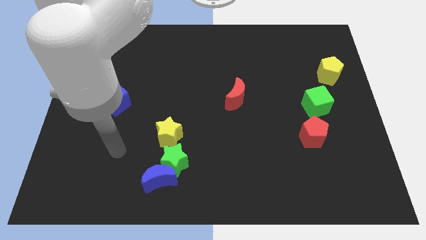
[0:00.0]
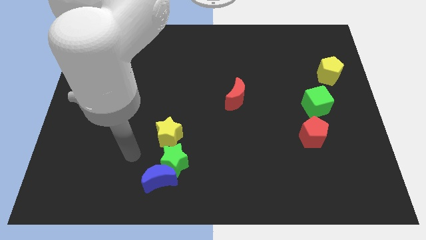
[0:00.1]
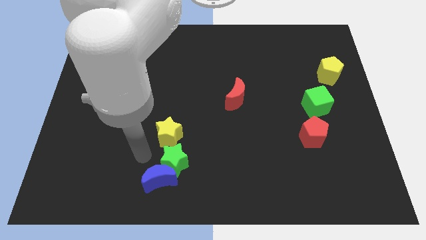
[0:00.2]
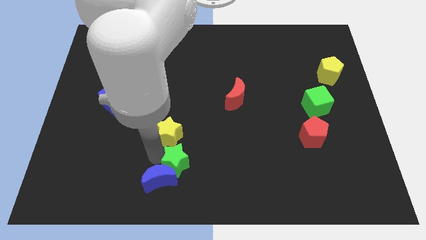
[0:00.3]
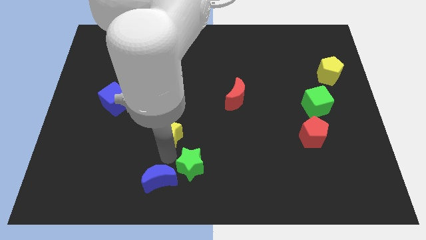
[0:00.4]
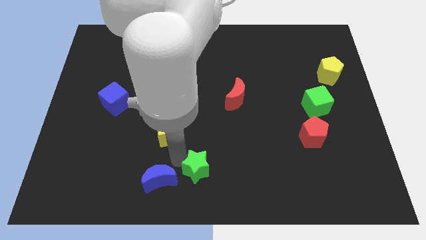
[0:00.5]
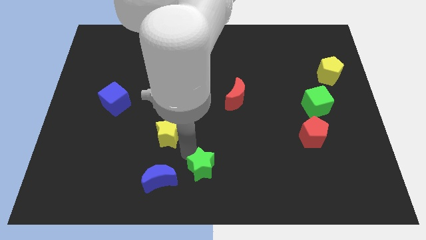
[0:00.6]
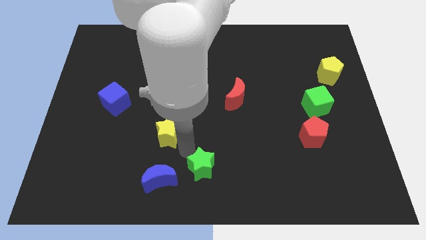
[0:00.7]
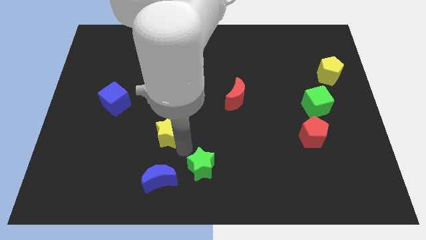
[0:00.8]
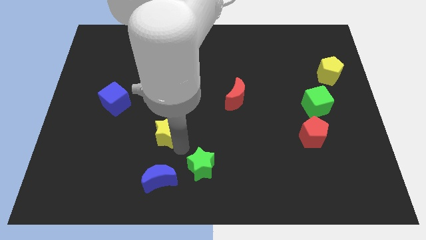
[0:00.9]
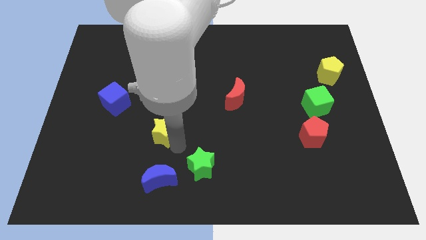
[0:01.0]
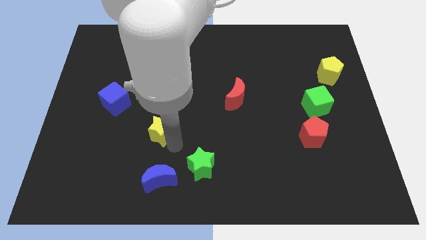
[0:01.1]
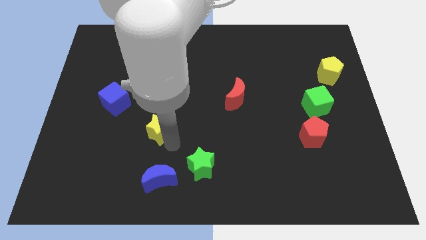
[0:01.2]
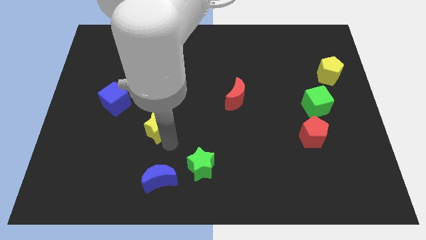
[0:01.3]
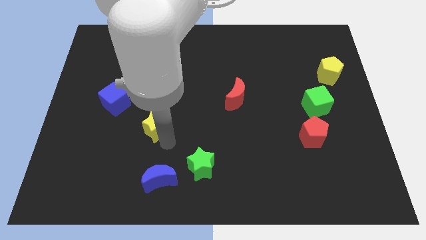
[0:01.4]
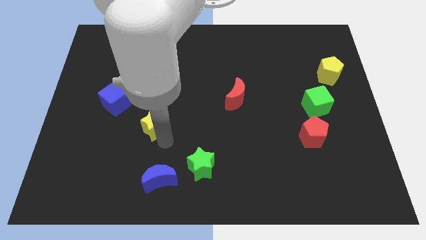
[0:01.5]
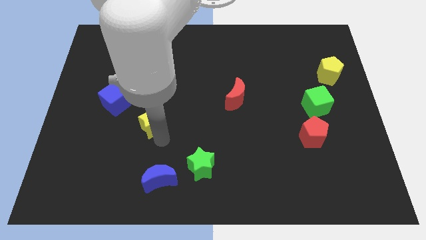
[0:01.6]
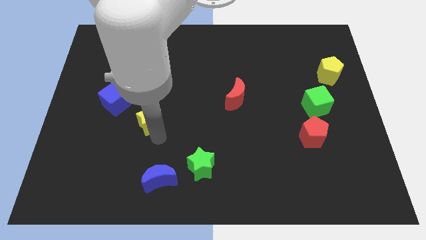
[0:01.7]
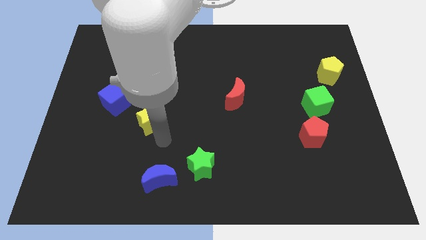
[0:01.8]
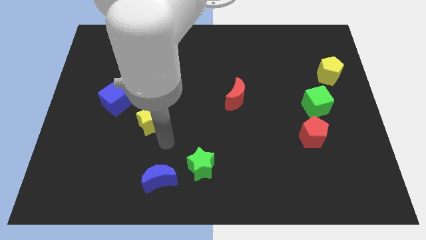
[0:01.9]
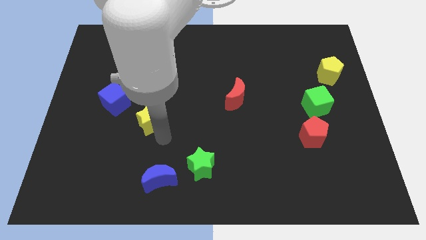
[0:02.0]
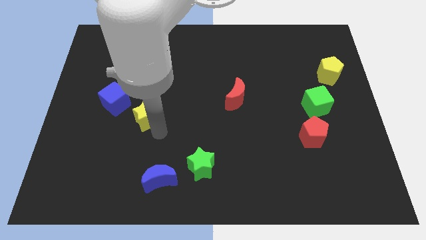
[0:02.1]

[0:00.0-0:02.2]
slightly push the yellow star diagonally upwards and to the left

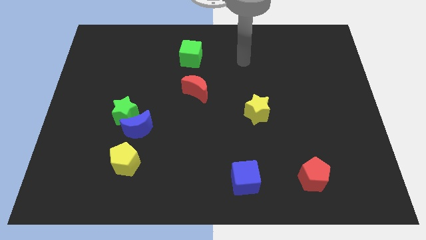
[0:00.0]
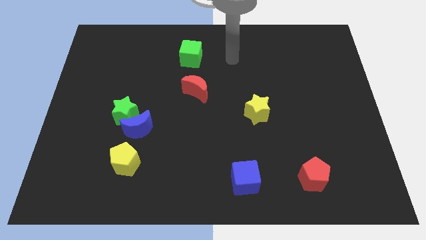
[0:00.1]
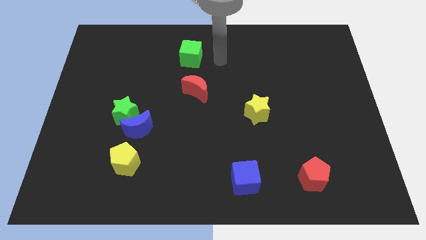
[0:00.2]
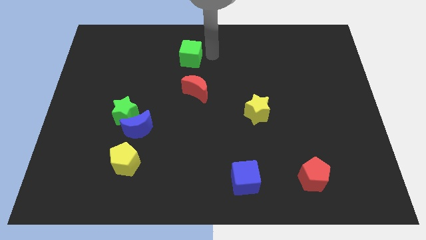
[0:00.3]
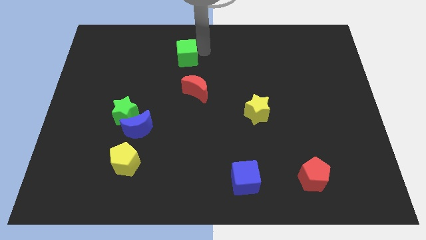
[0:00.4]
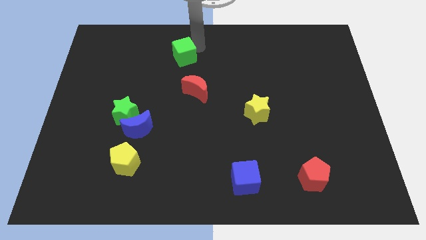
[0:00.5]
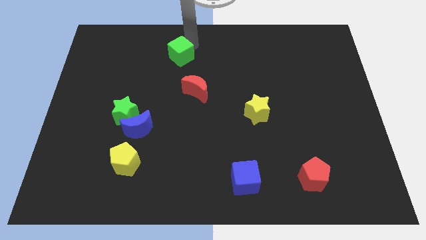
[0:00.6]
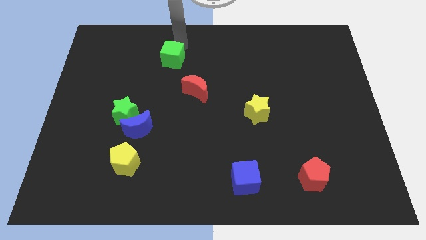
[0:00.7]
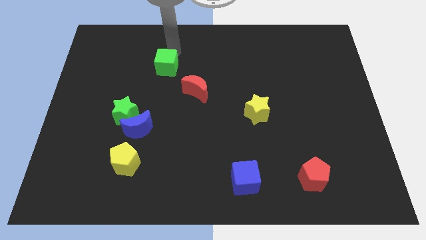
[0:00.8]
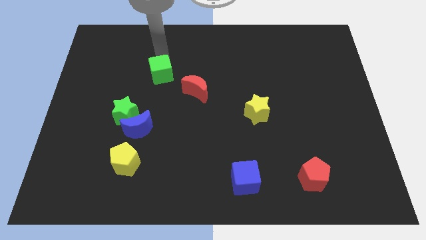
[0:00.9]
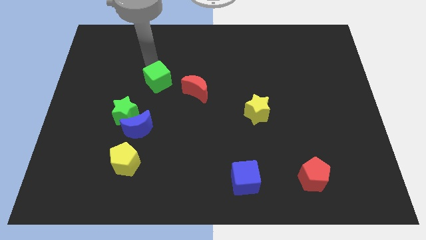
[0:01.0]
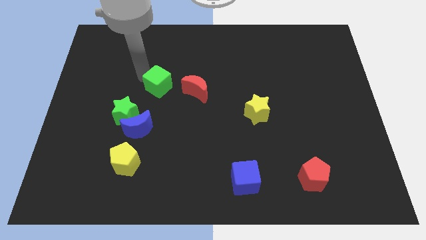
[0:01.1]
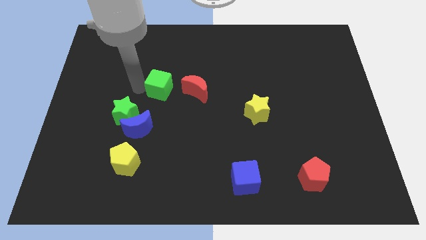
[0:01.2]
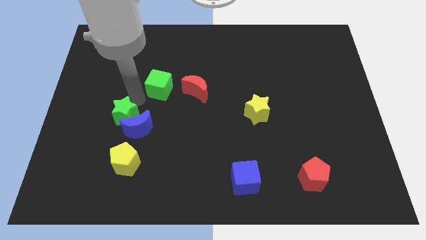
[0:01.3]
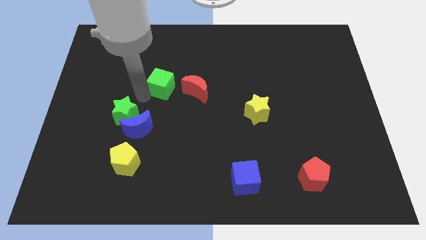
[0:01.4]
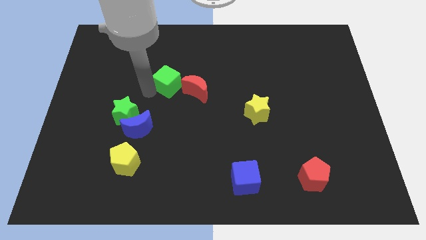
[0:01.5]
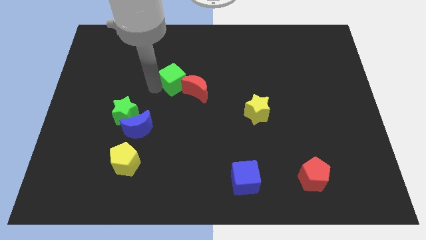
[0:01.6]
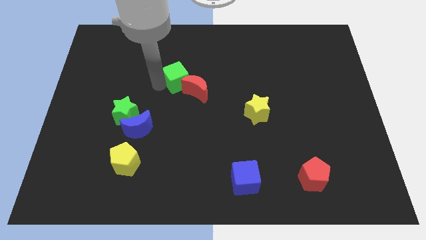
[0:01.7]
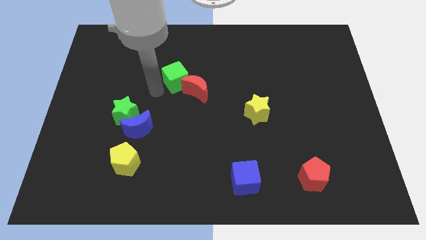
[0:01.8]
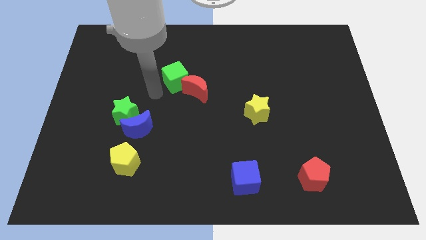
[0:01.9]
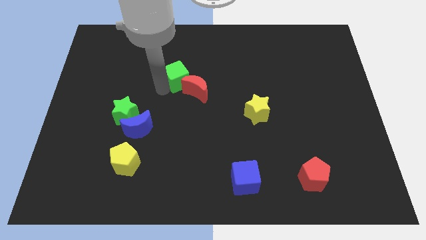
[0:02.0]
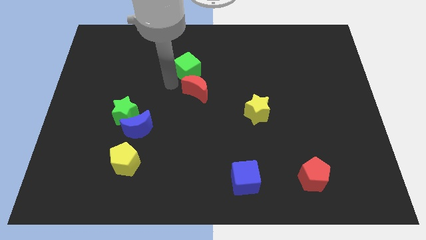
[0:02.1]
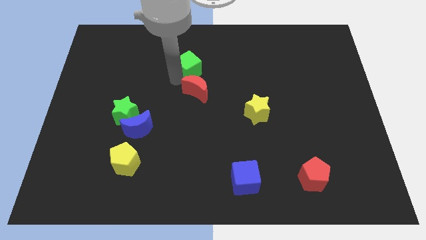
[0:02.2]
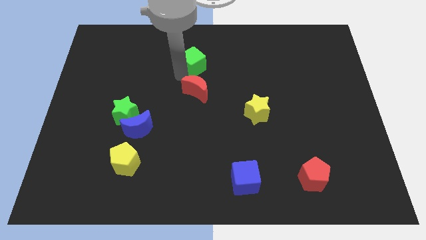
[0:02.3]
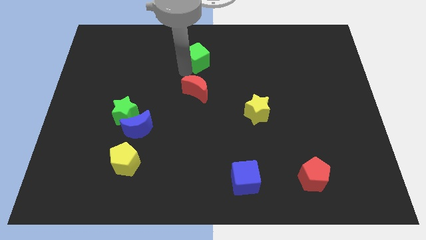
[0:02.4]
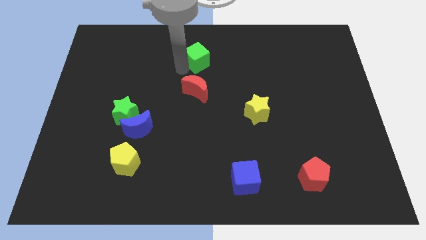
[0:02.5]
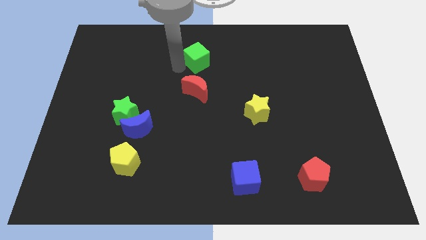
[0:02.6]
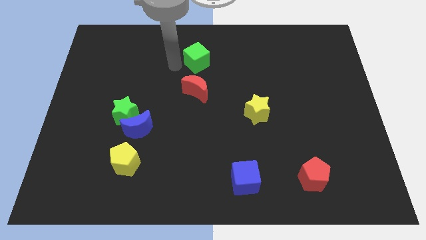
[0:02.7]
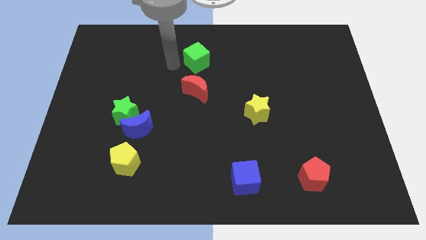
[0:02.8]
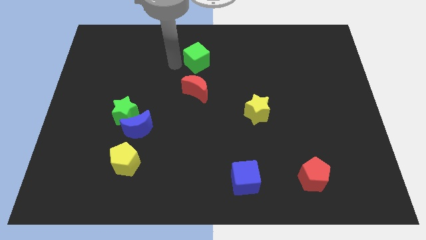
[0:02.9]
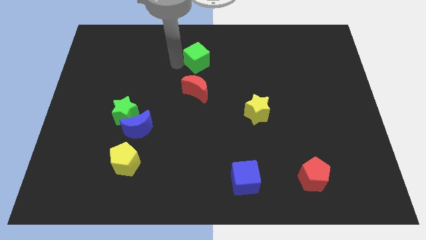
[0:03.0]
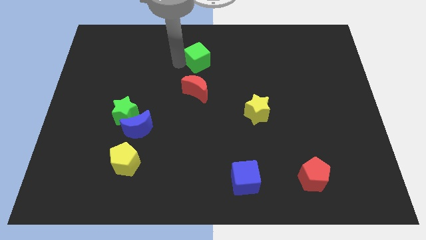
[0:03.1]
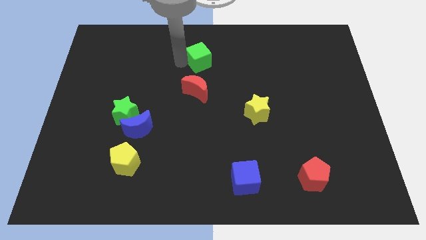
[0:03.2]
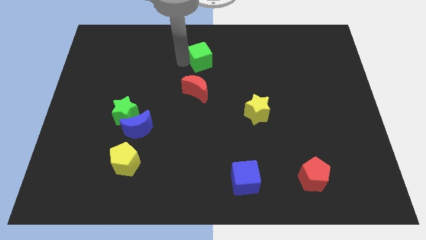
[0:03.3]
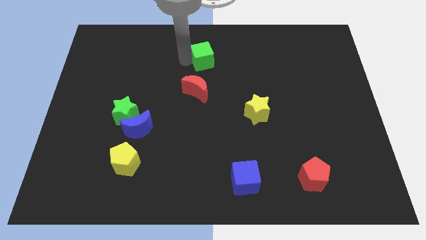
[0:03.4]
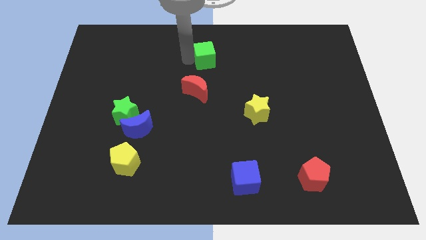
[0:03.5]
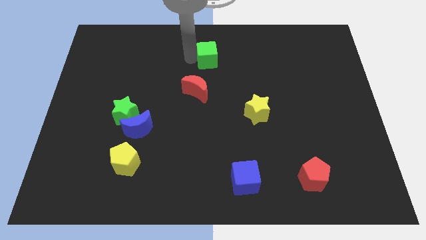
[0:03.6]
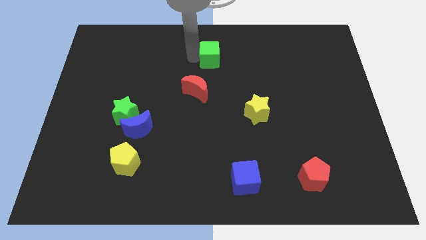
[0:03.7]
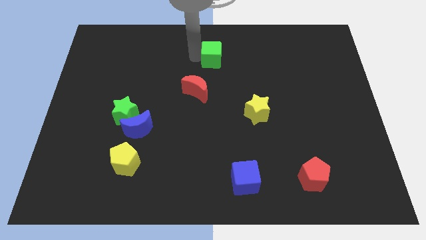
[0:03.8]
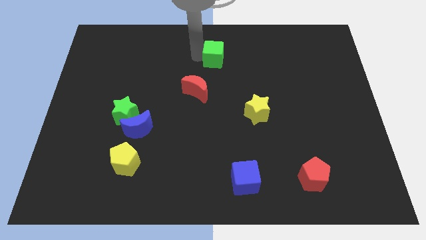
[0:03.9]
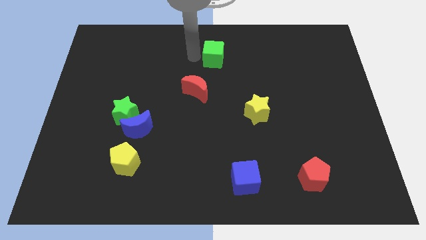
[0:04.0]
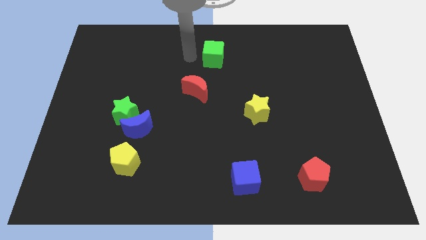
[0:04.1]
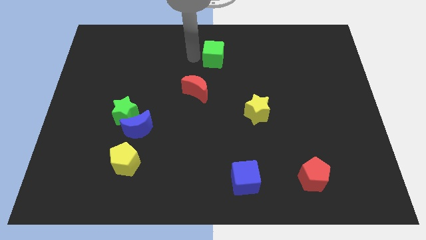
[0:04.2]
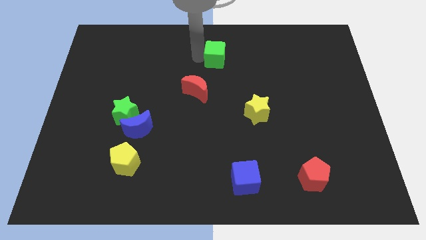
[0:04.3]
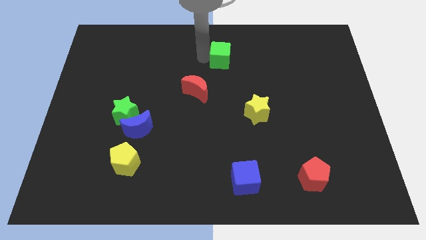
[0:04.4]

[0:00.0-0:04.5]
move the green cube to the right somewhat

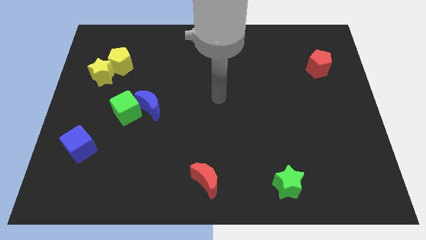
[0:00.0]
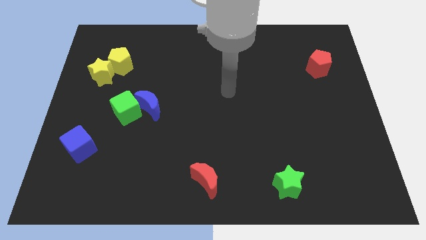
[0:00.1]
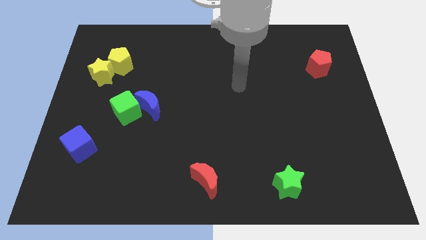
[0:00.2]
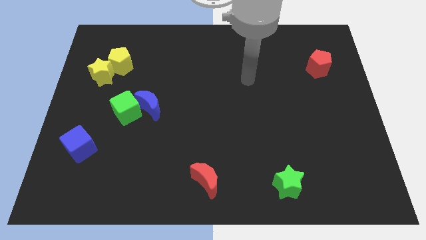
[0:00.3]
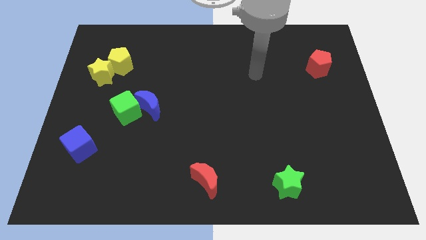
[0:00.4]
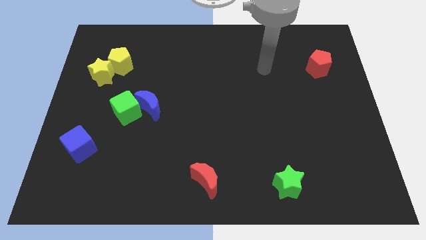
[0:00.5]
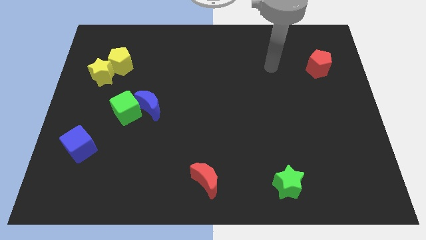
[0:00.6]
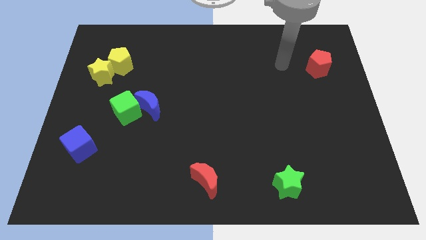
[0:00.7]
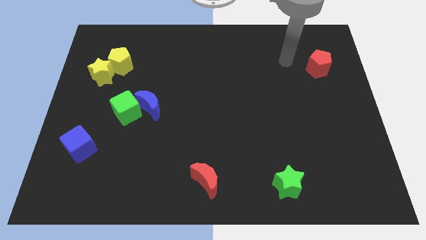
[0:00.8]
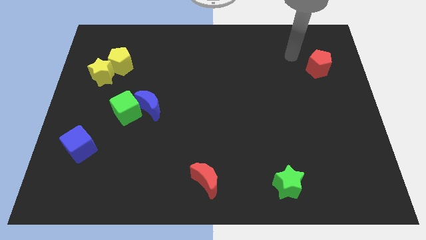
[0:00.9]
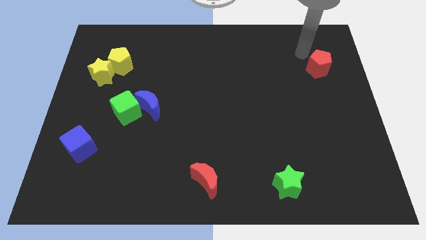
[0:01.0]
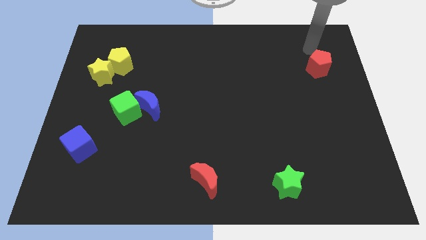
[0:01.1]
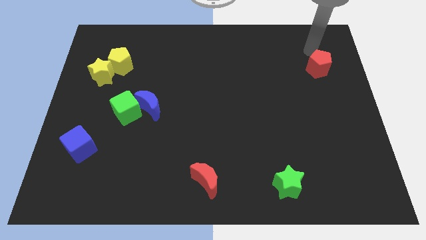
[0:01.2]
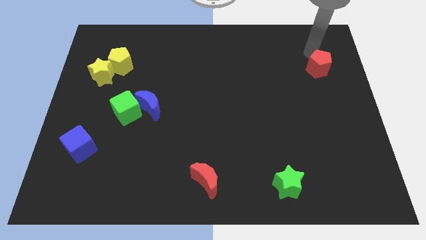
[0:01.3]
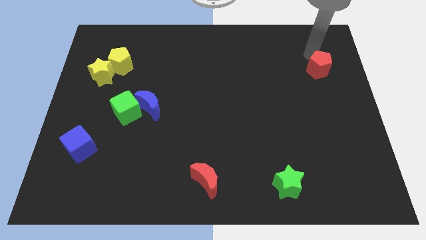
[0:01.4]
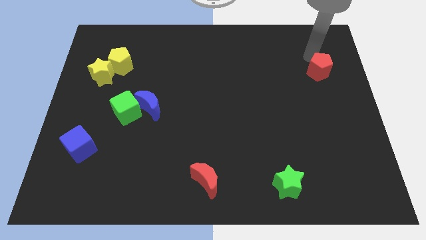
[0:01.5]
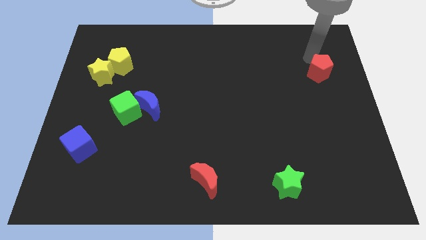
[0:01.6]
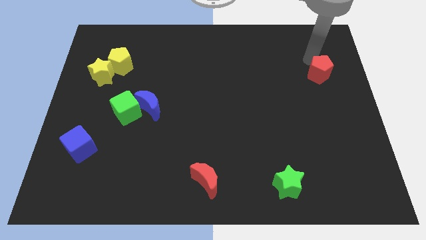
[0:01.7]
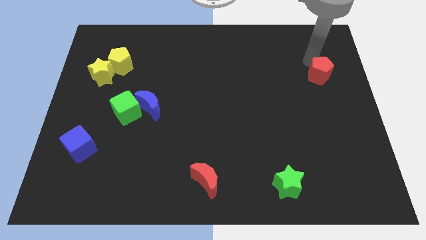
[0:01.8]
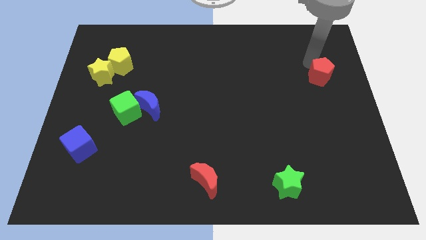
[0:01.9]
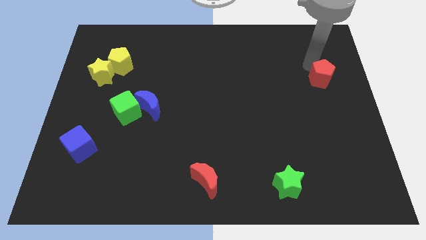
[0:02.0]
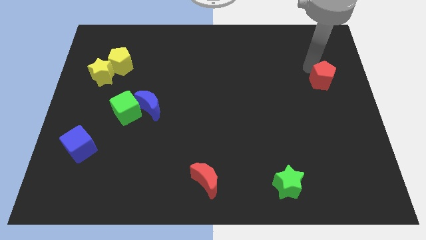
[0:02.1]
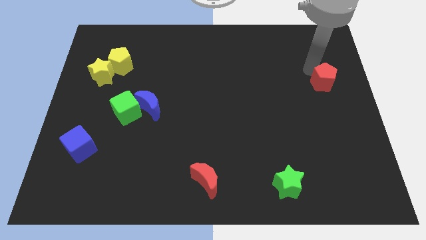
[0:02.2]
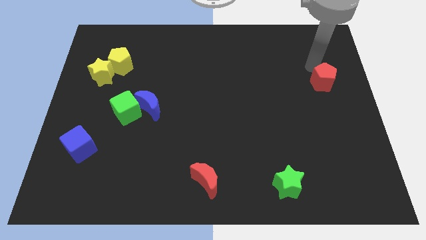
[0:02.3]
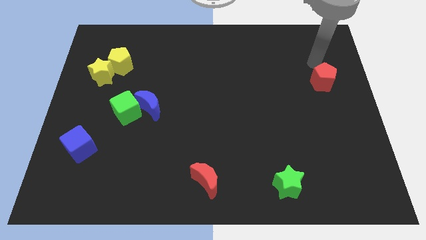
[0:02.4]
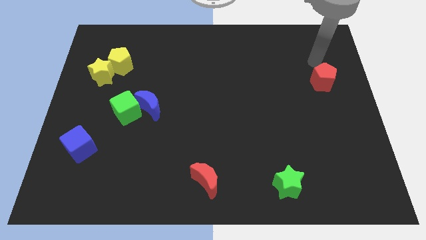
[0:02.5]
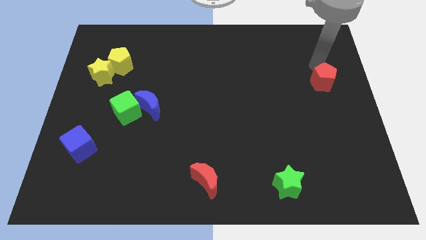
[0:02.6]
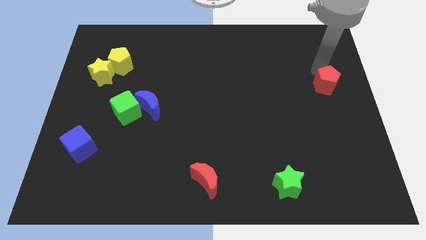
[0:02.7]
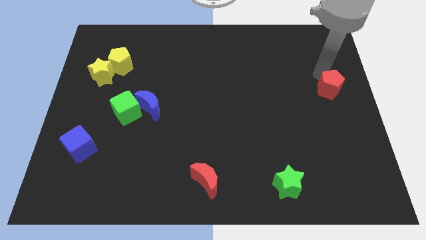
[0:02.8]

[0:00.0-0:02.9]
slightly push the red pentagon down
